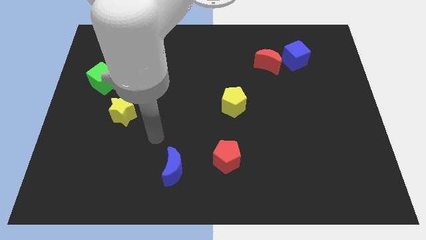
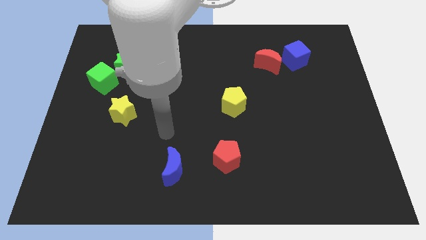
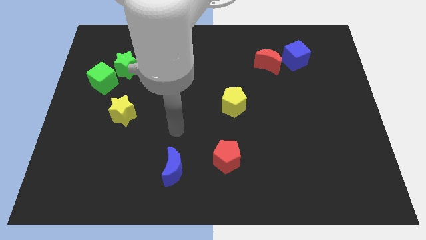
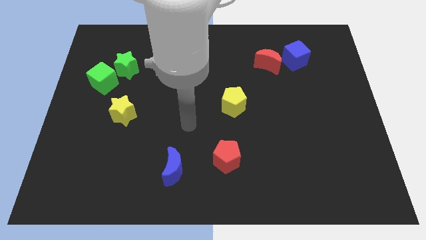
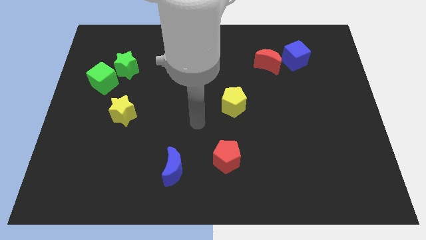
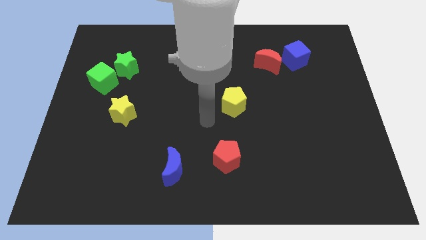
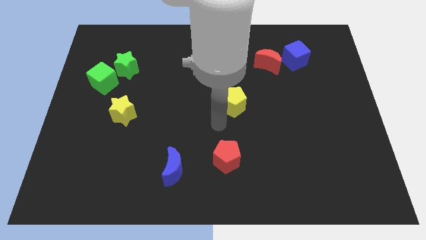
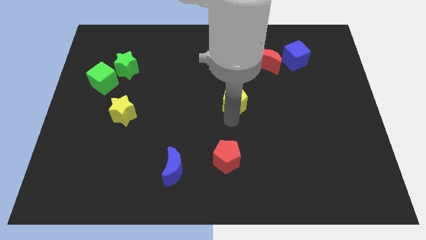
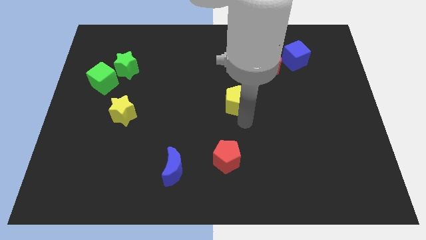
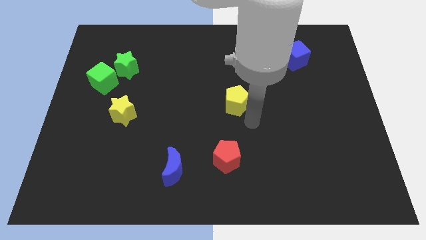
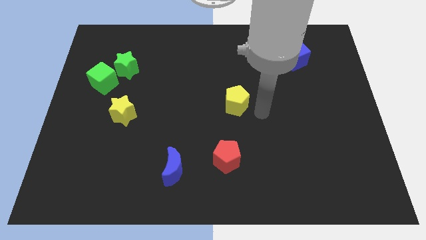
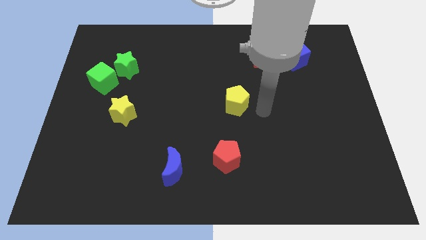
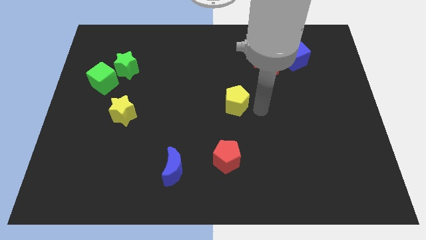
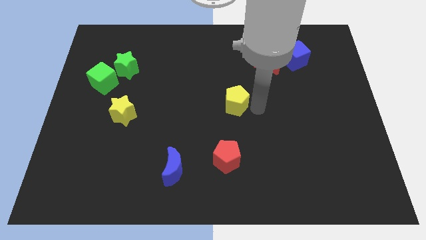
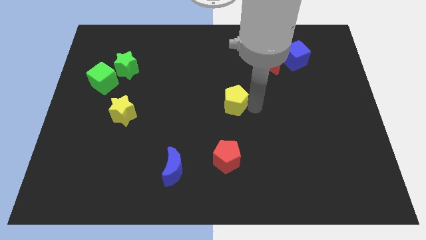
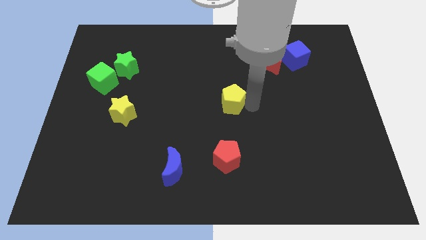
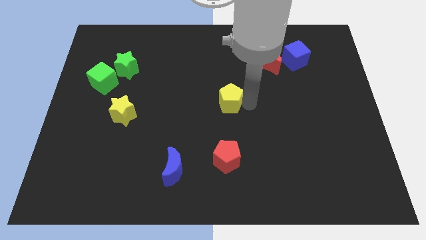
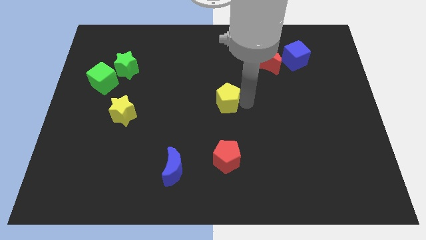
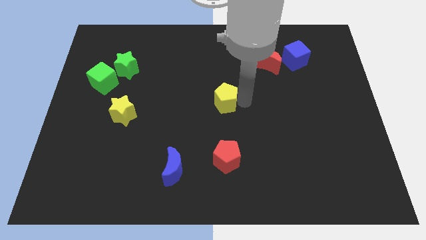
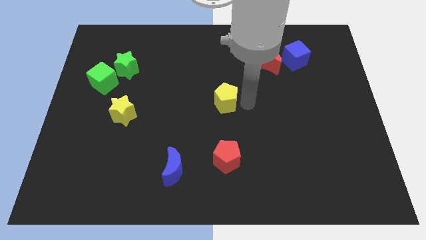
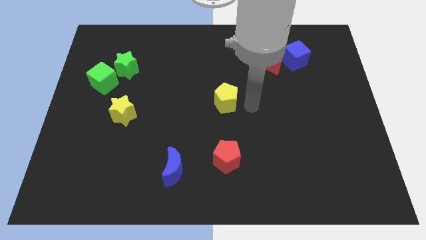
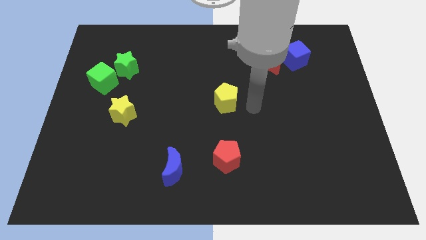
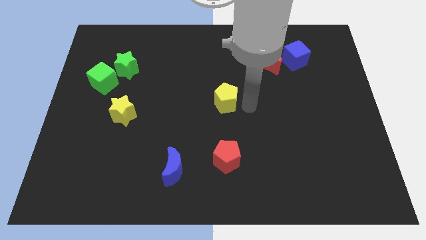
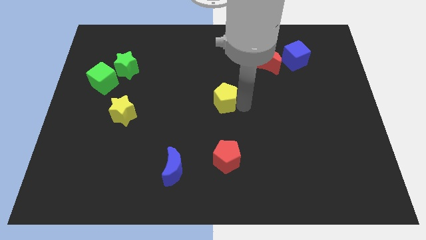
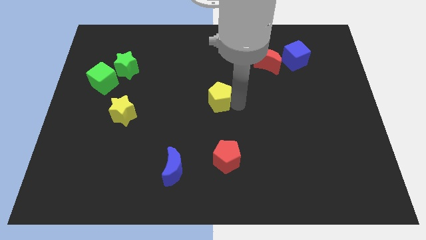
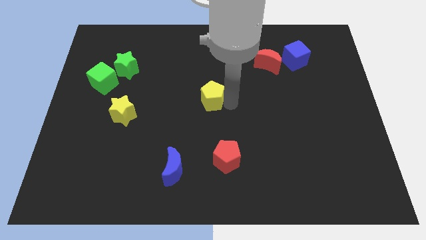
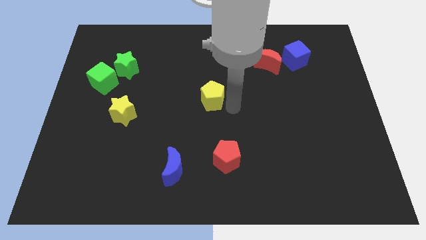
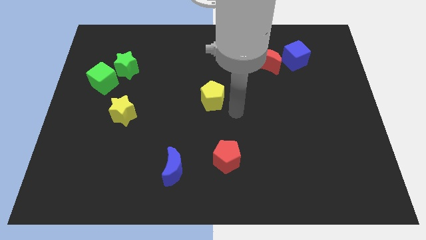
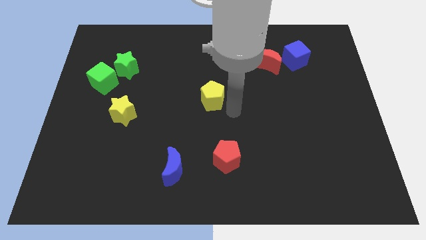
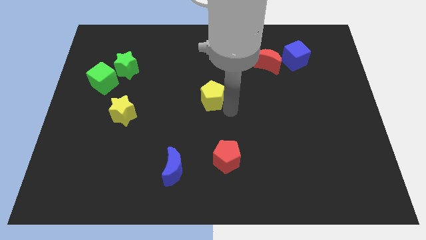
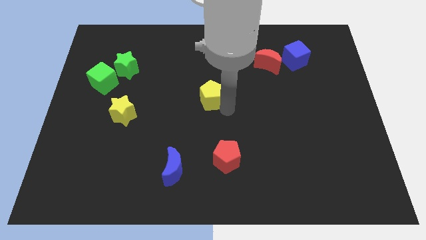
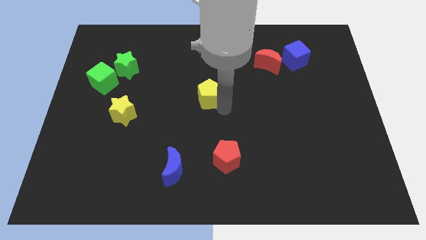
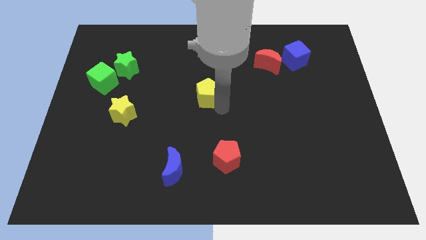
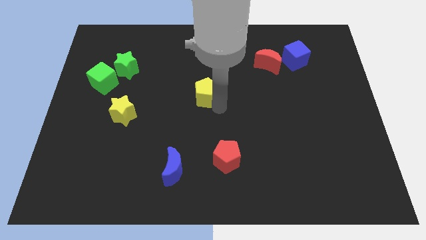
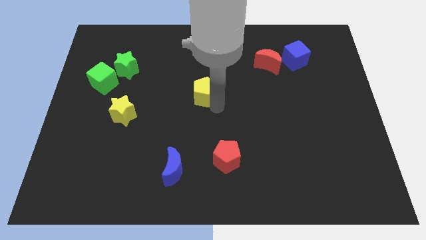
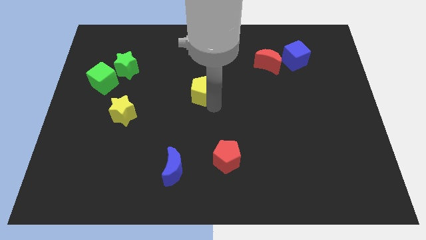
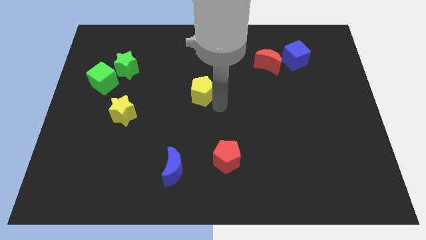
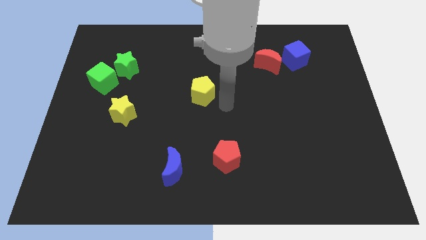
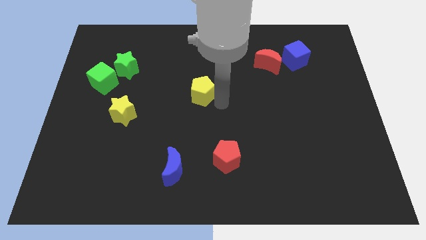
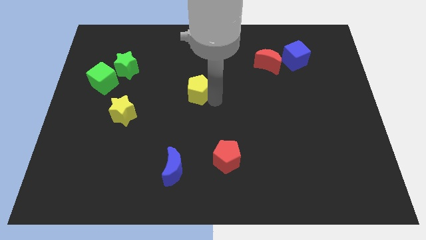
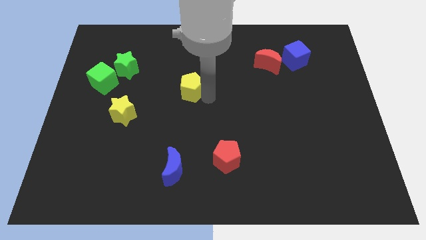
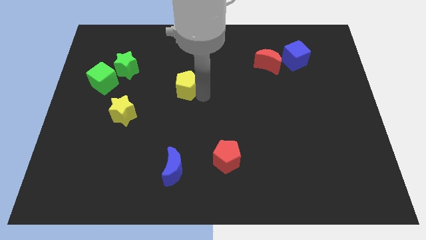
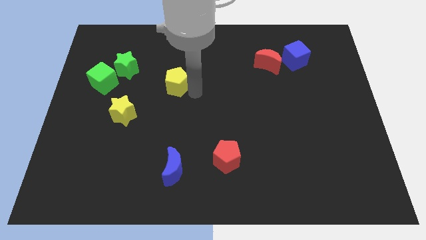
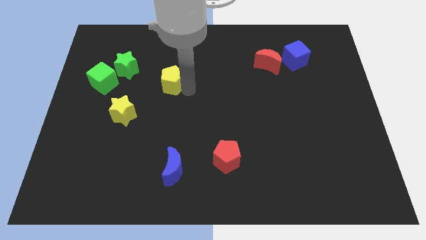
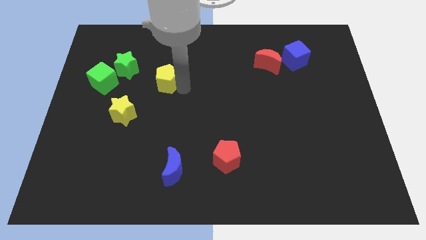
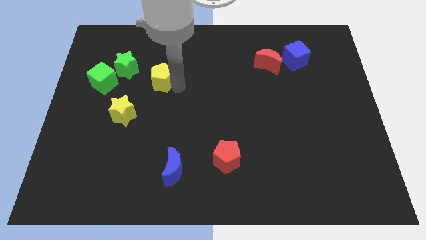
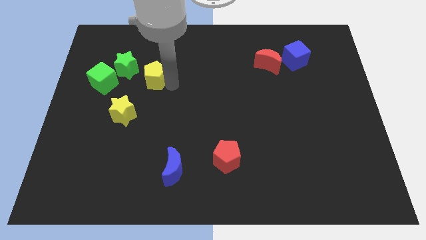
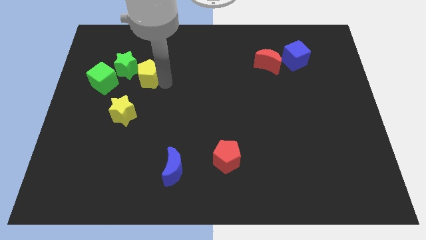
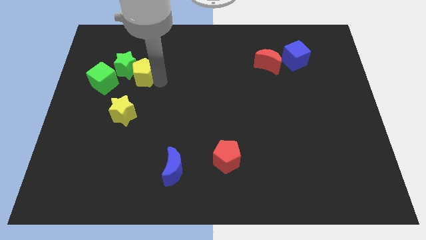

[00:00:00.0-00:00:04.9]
put the yellow pentagon next to the green star

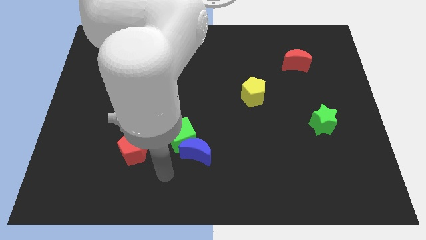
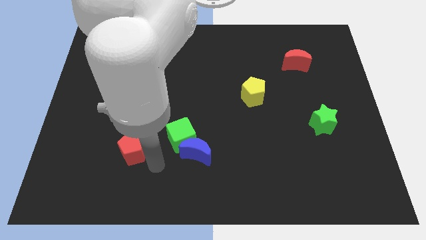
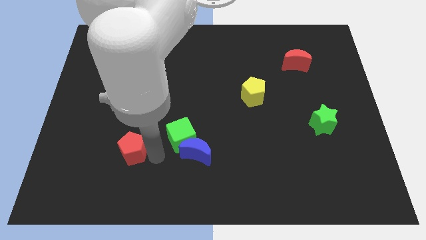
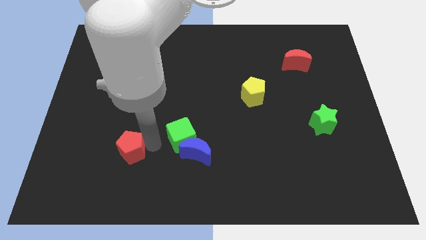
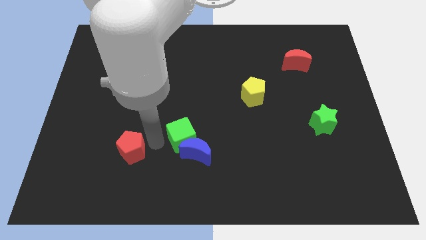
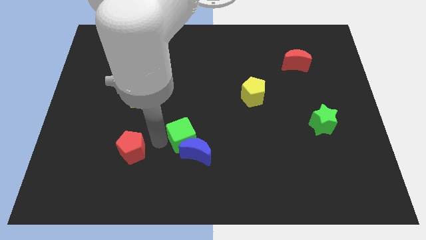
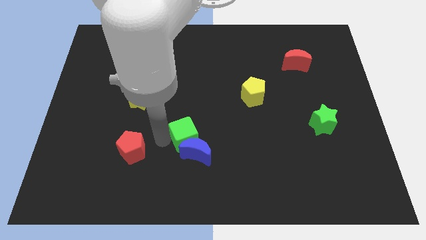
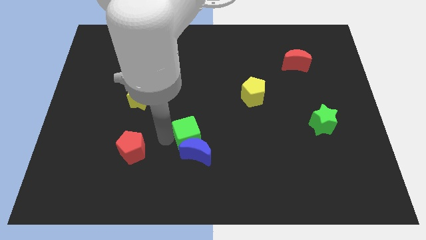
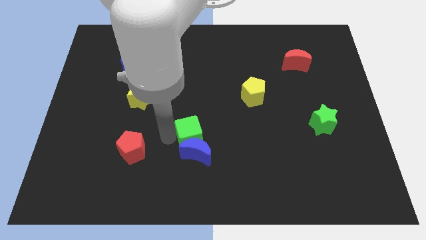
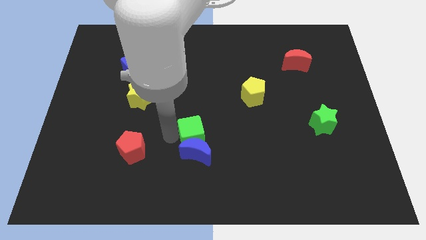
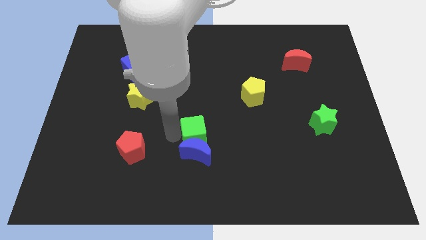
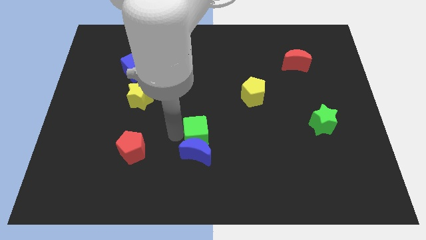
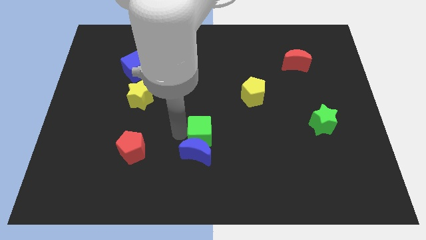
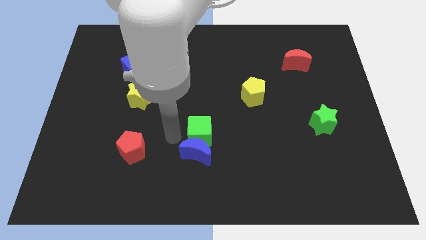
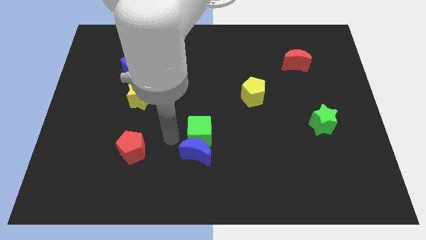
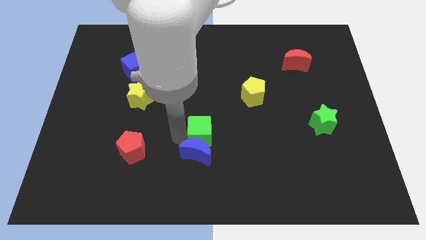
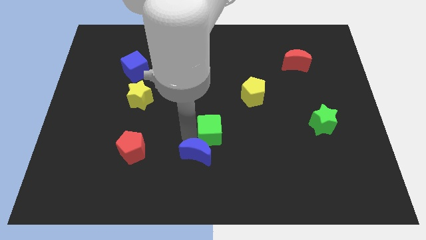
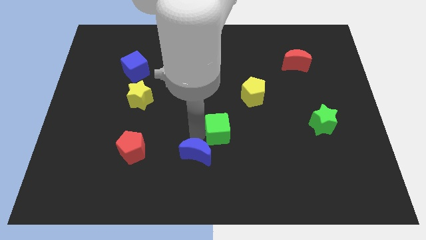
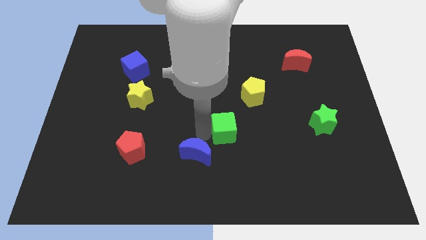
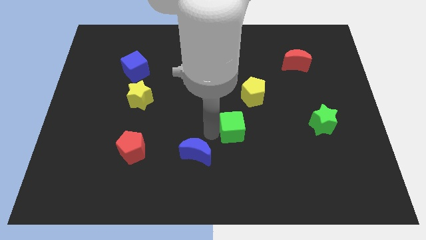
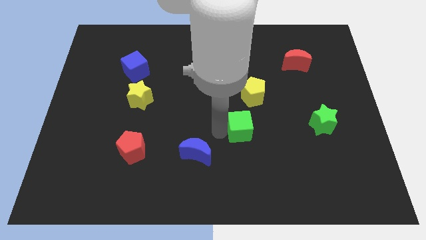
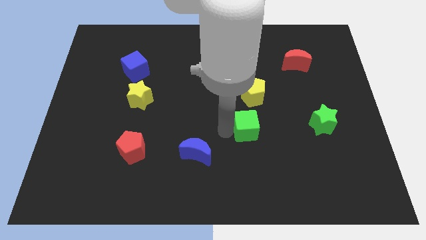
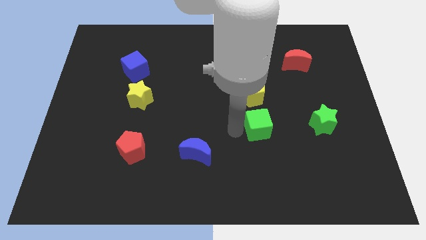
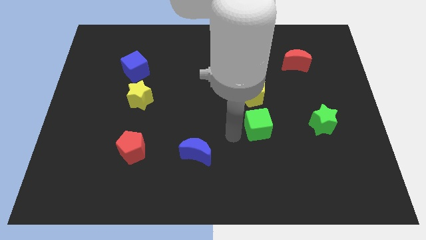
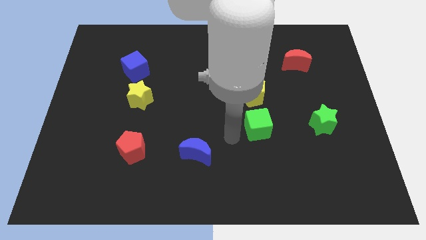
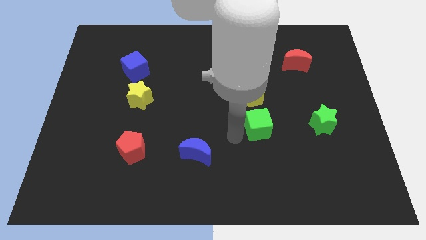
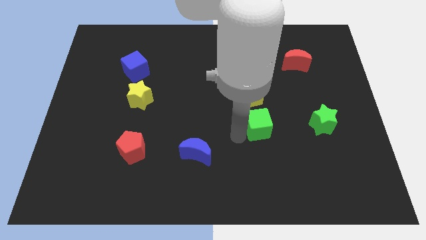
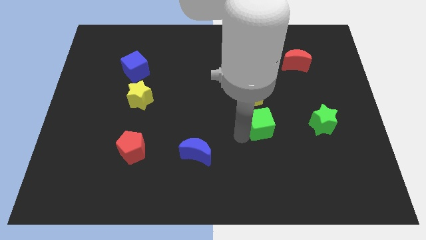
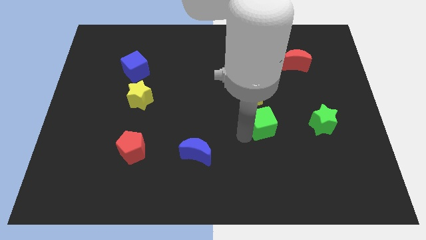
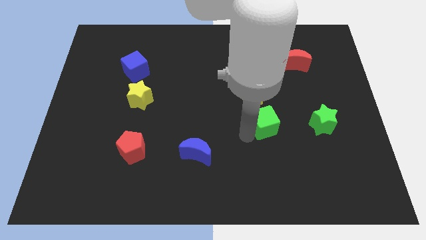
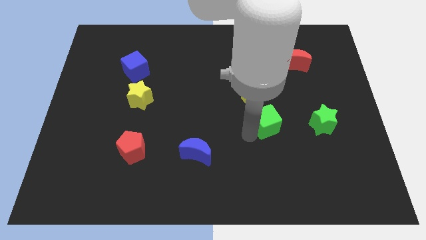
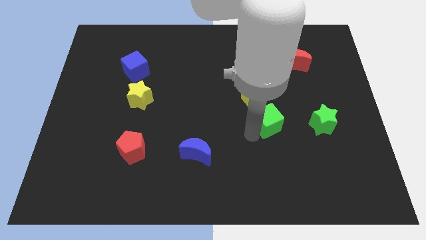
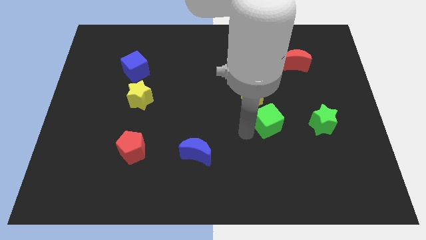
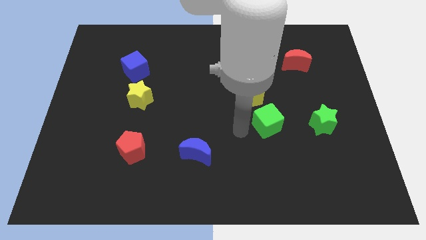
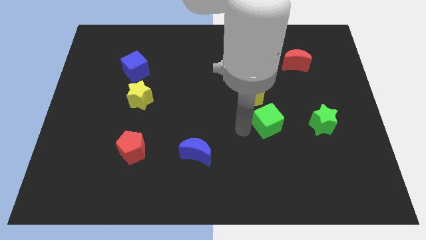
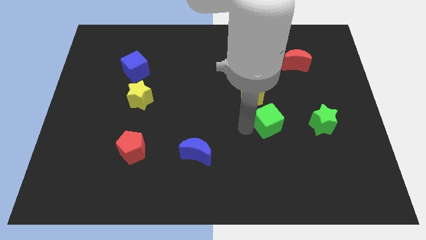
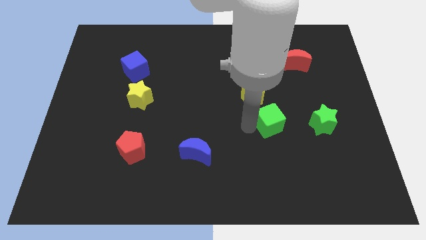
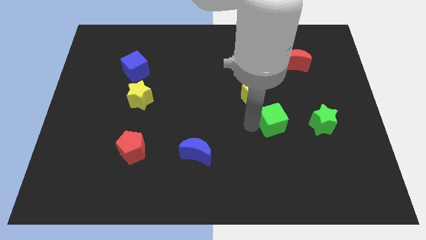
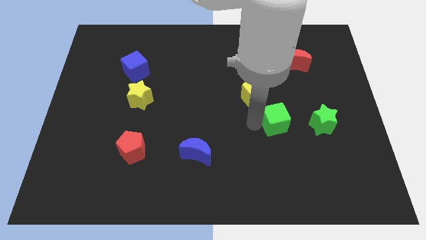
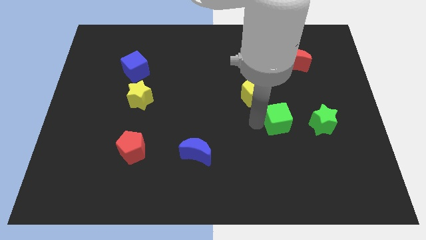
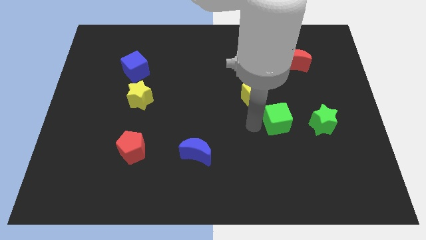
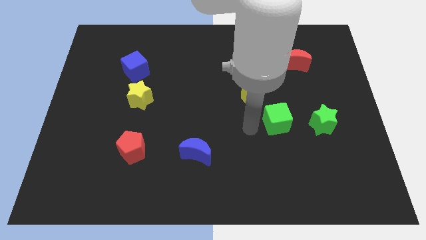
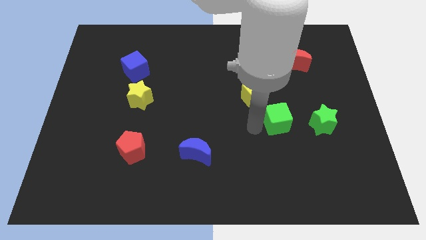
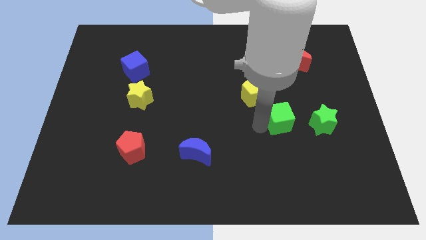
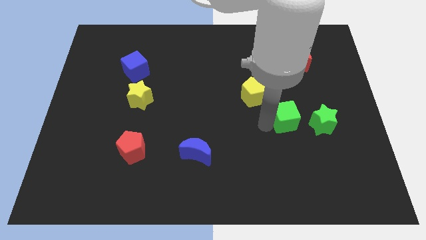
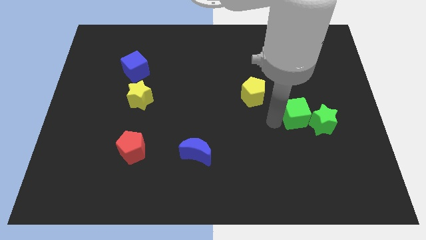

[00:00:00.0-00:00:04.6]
move the green cube next to the green star
